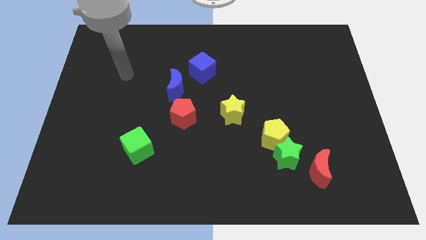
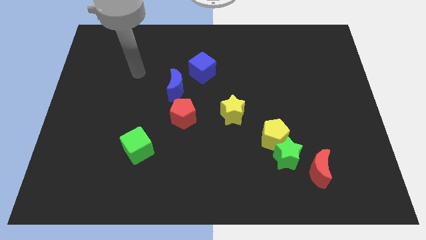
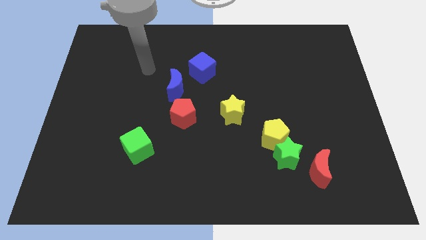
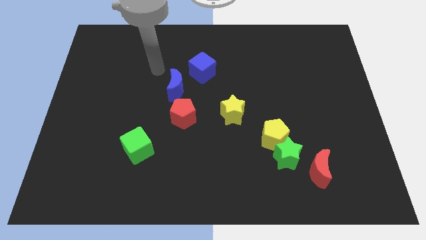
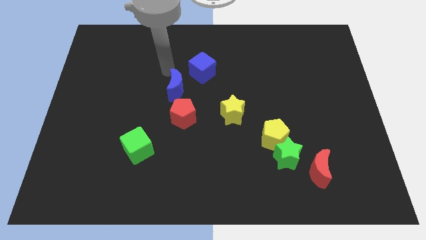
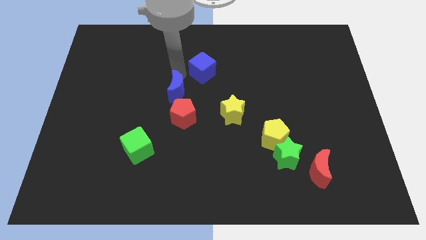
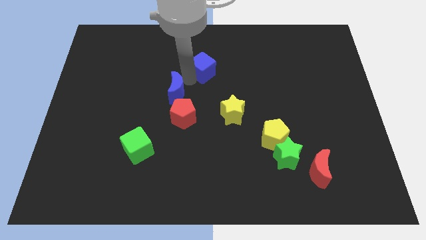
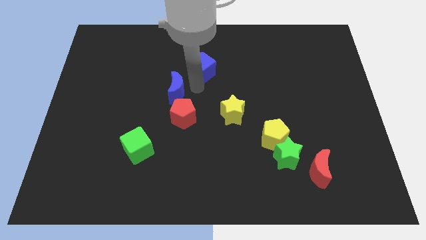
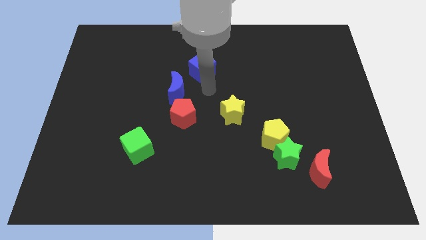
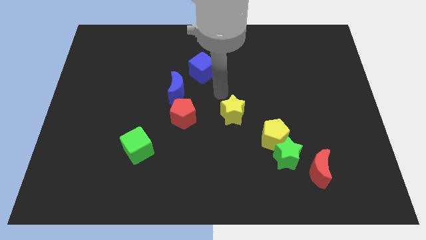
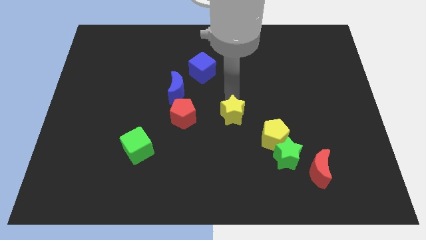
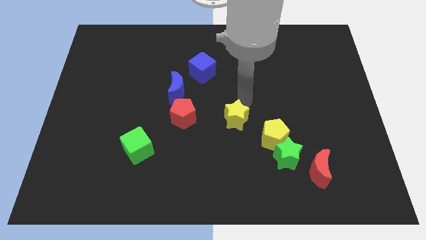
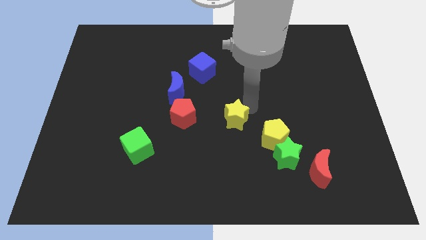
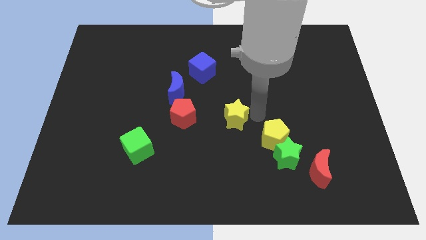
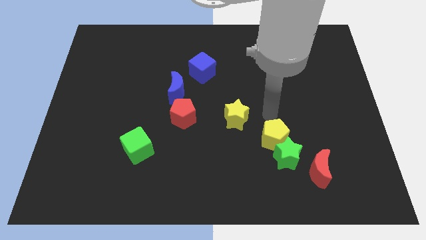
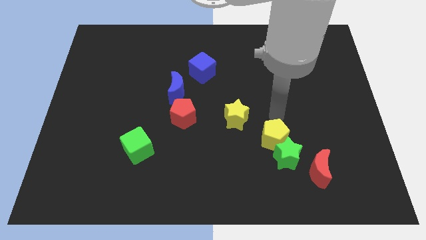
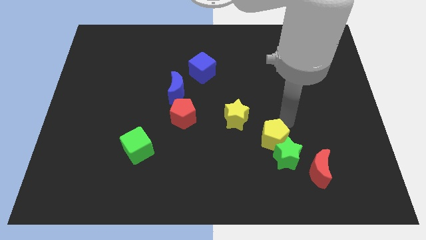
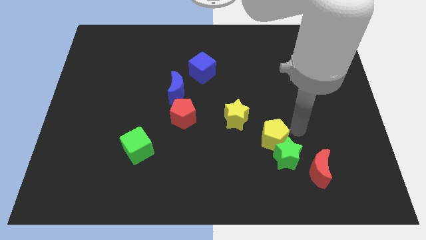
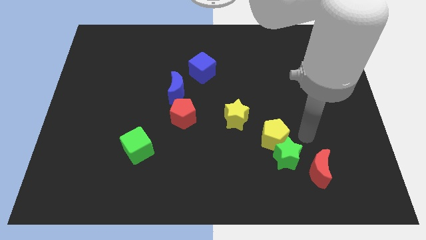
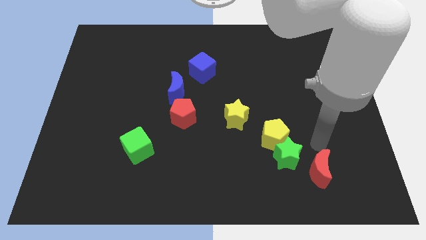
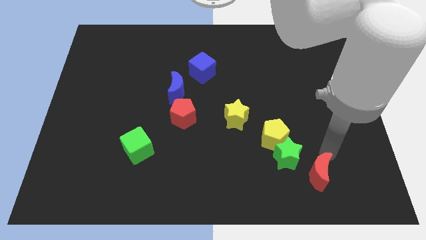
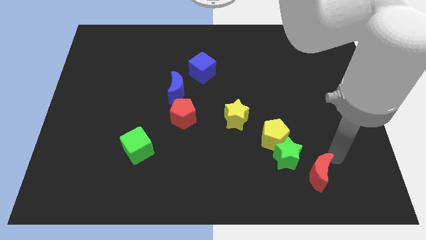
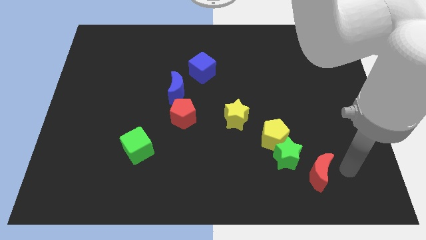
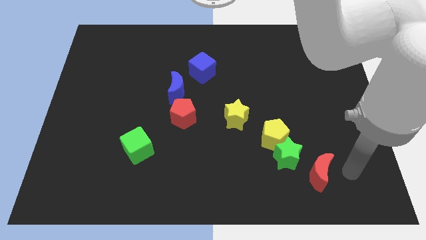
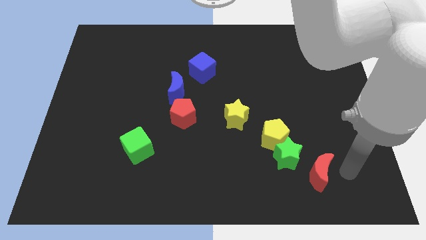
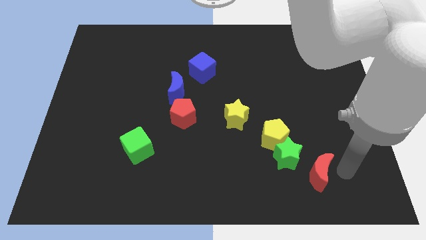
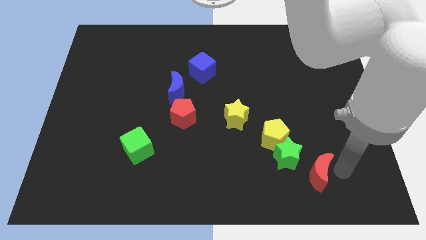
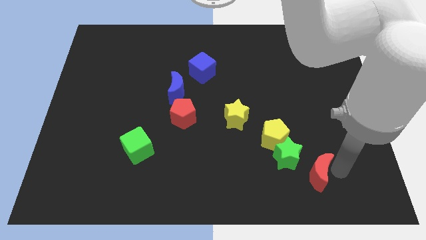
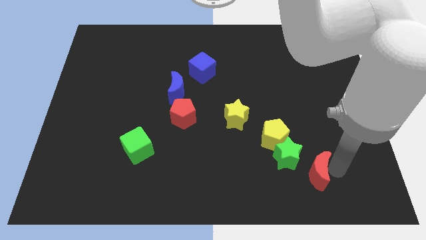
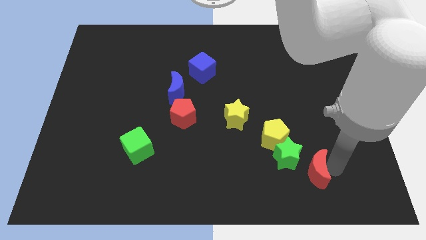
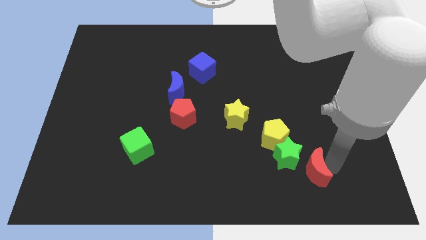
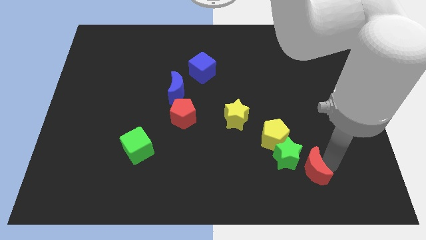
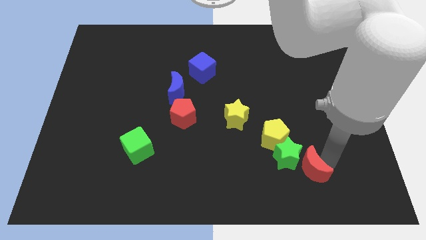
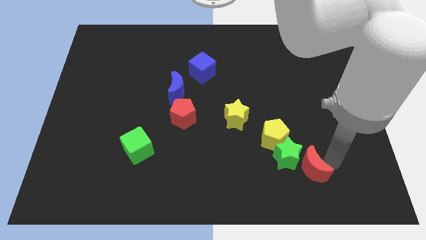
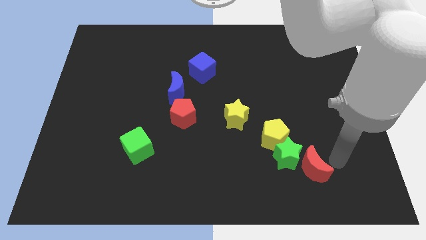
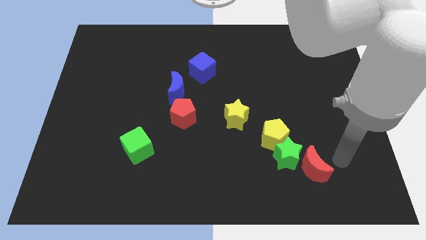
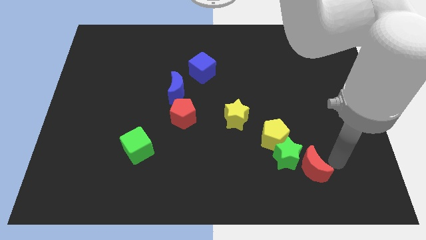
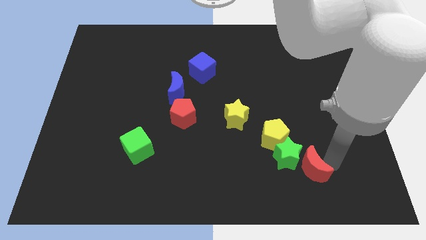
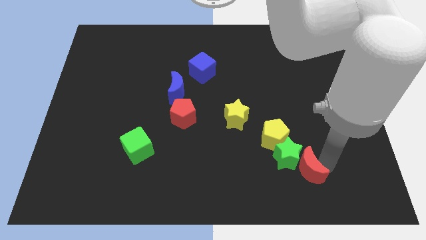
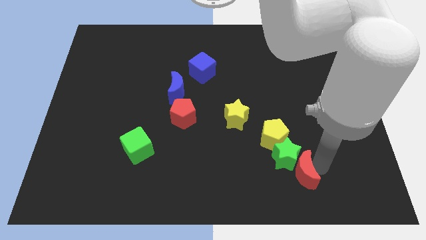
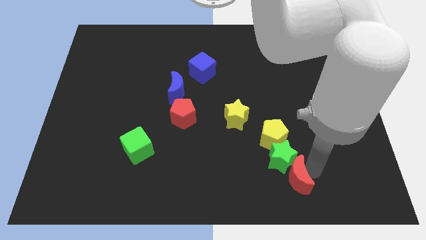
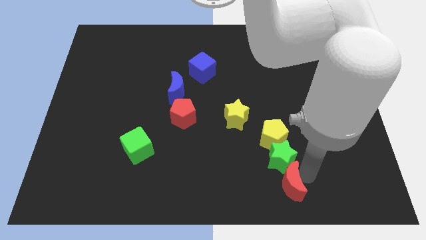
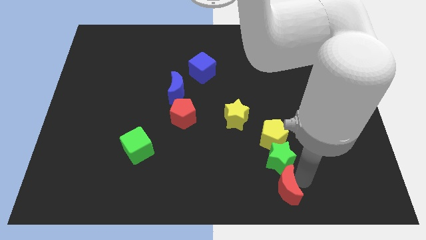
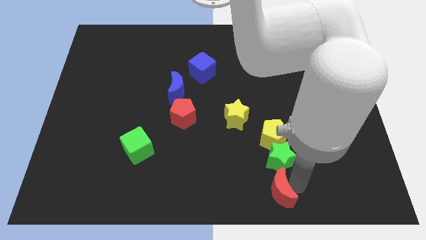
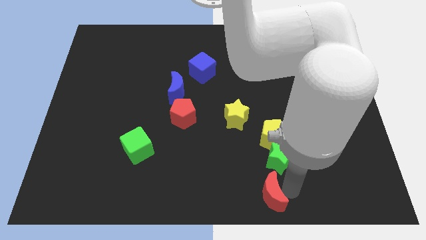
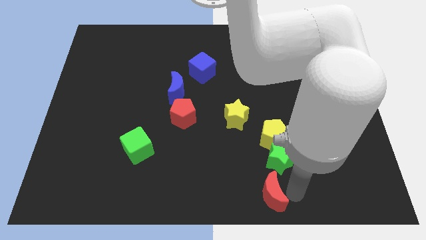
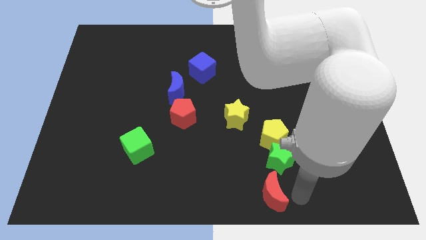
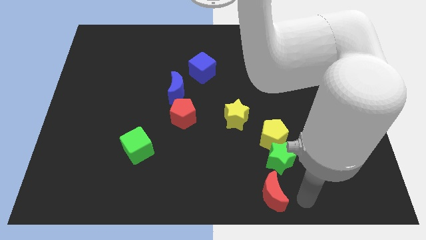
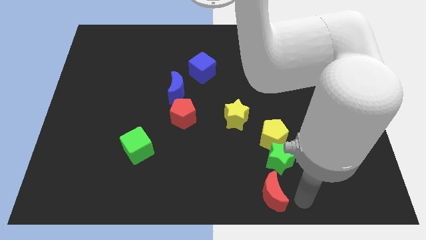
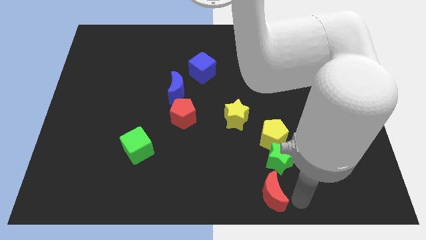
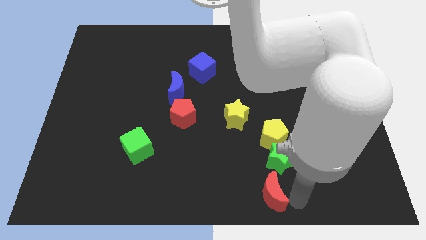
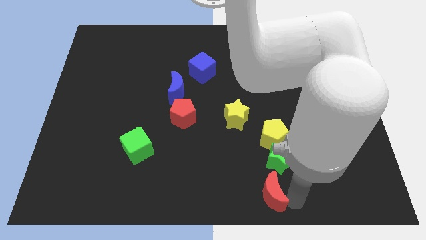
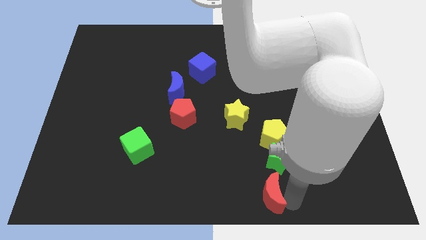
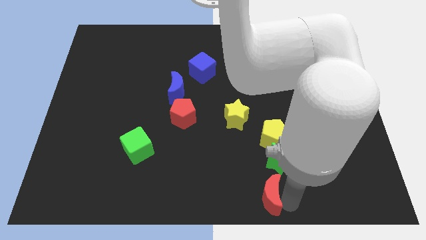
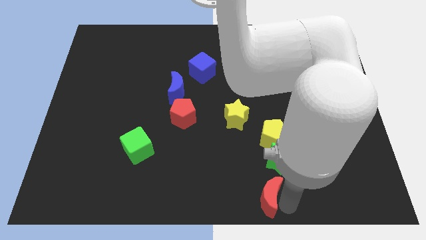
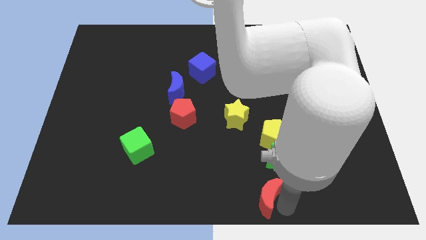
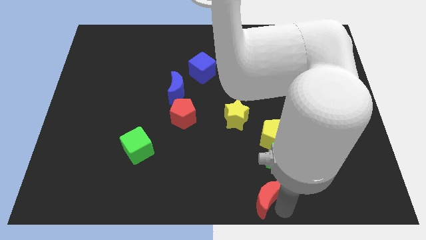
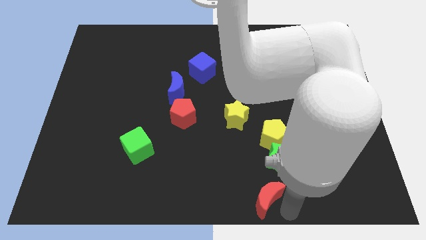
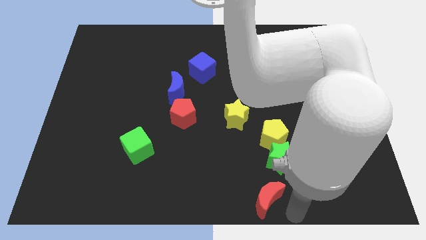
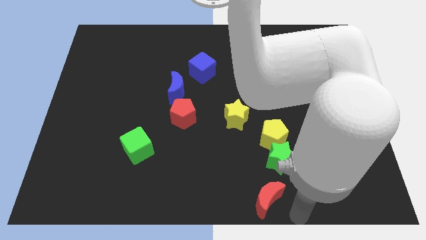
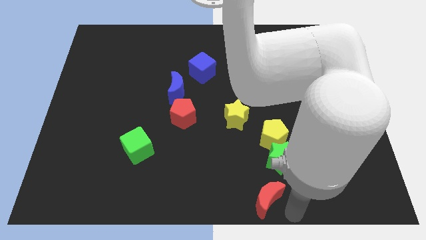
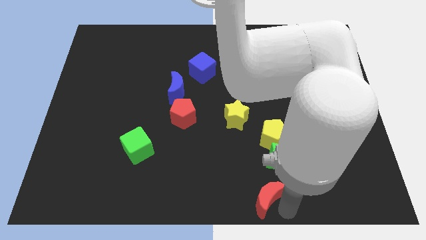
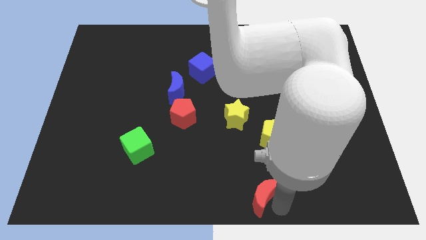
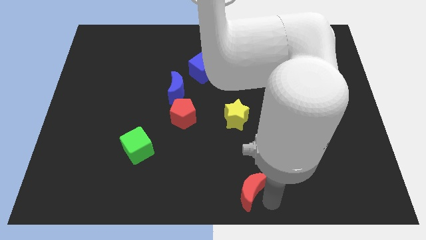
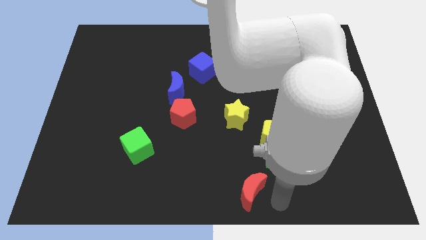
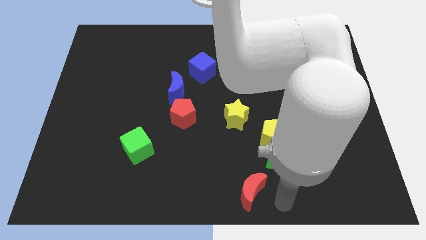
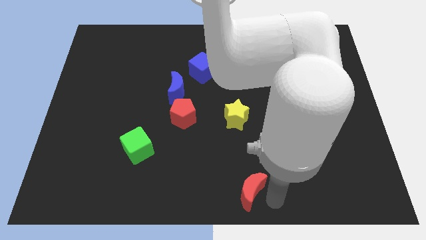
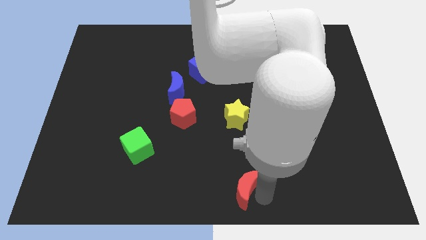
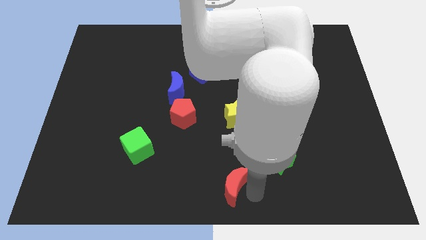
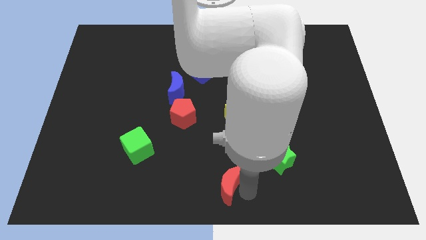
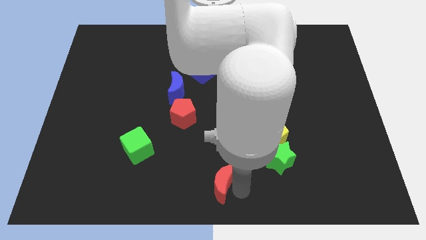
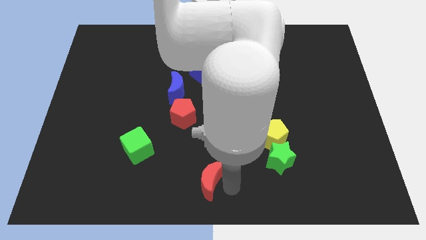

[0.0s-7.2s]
slide the red moon to the left

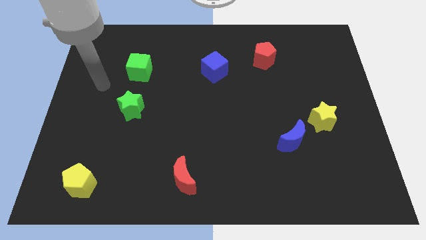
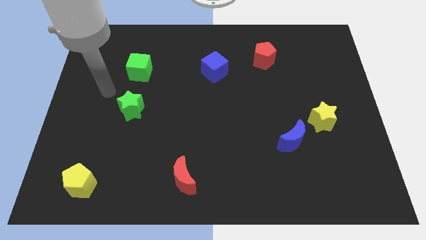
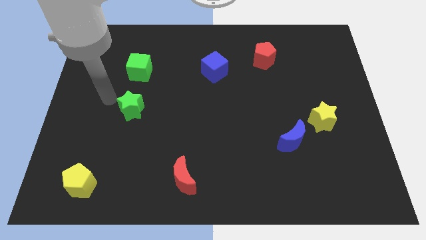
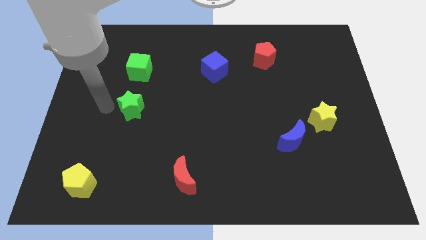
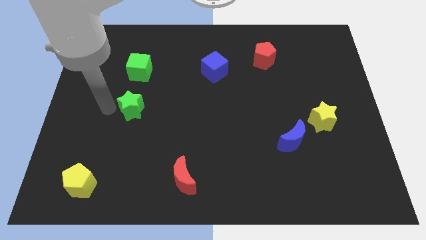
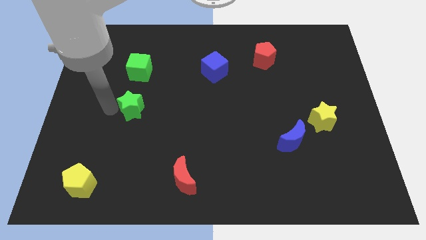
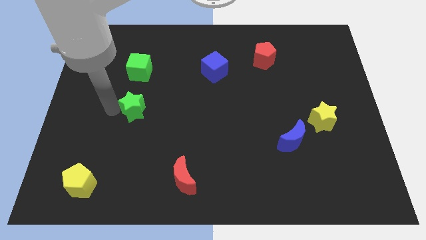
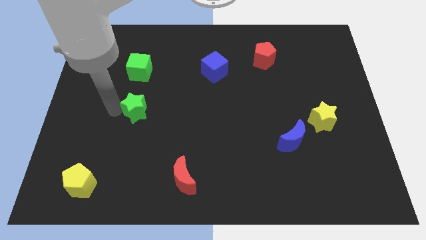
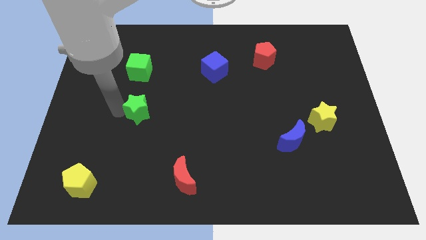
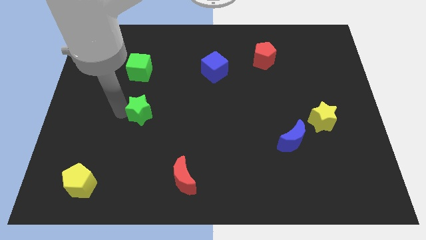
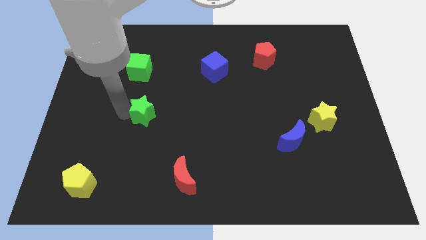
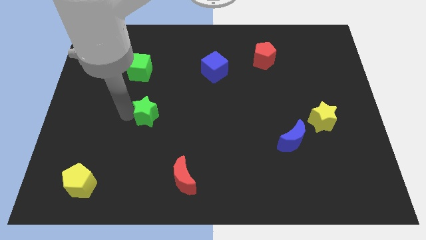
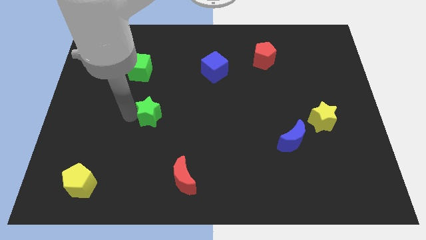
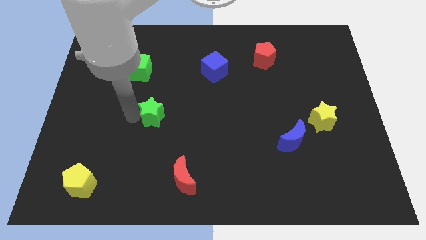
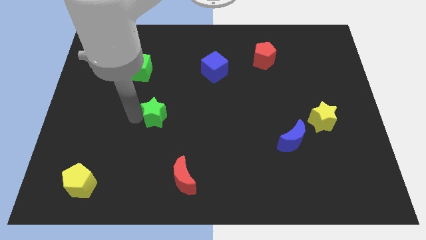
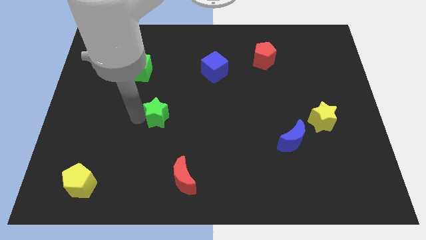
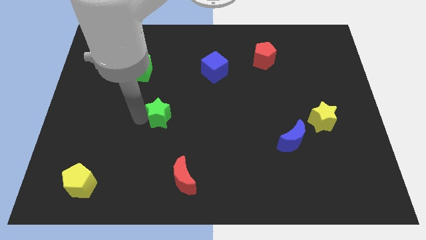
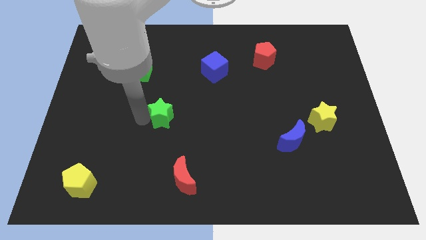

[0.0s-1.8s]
move the green star to the right somewhat
